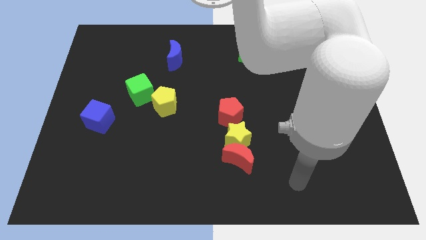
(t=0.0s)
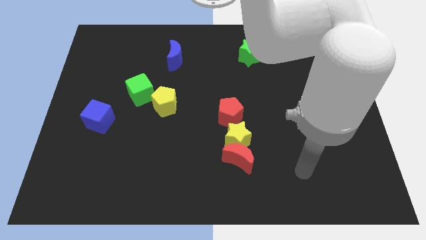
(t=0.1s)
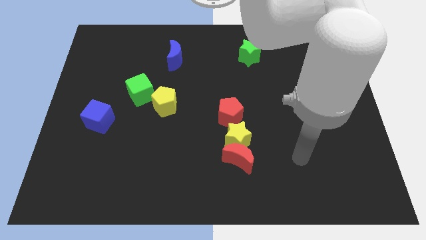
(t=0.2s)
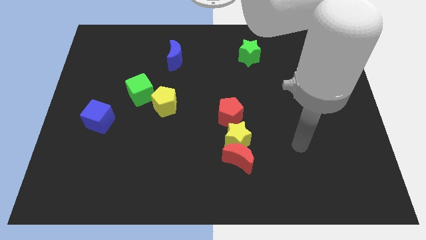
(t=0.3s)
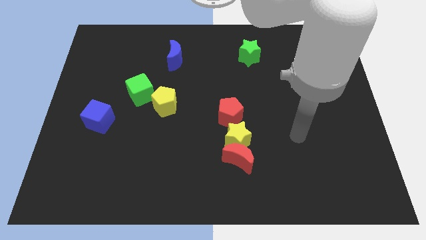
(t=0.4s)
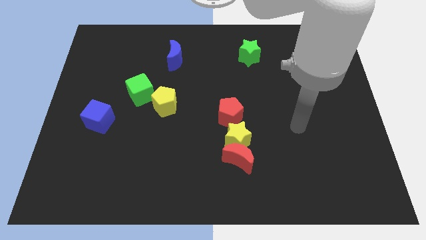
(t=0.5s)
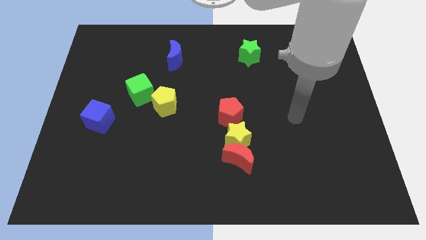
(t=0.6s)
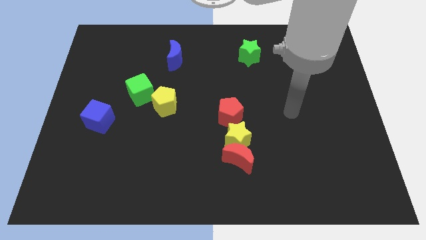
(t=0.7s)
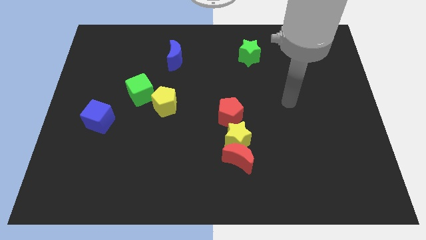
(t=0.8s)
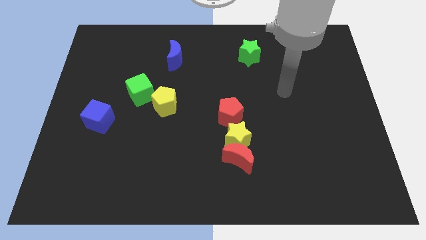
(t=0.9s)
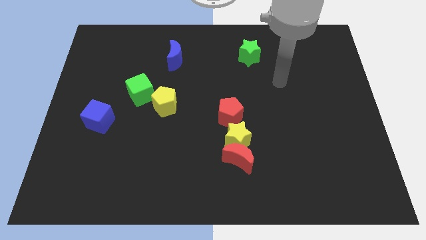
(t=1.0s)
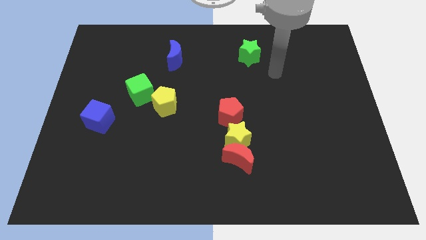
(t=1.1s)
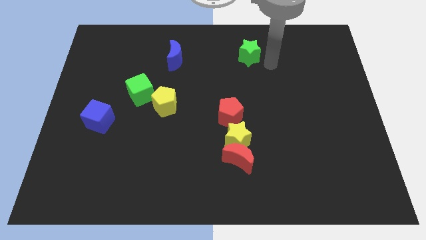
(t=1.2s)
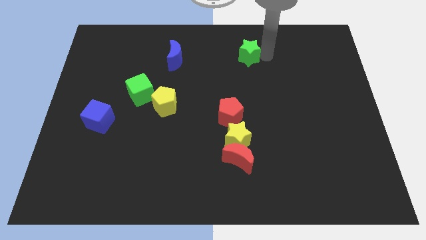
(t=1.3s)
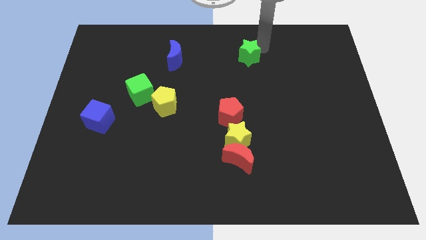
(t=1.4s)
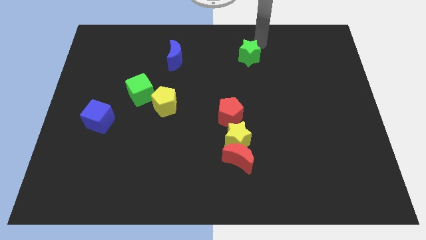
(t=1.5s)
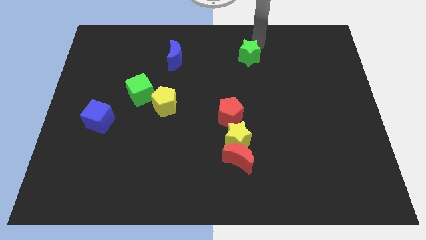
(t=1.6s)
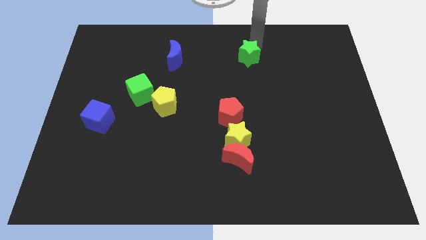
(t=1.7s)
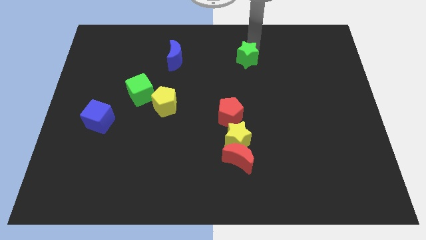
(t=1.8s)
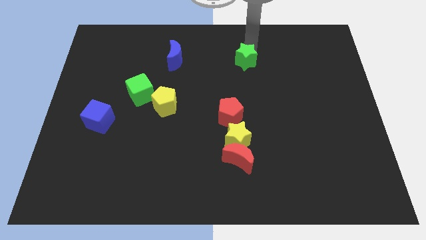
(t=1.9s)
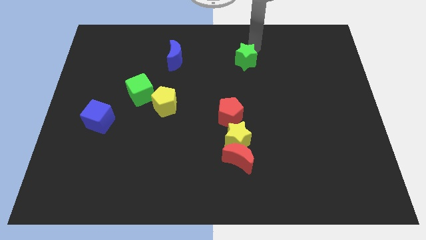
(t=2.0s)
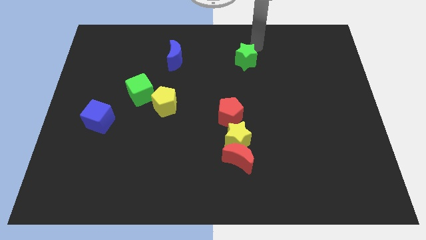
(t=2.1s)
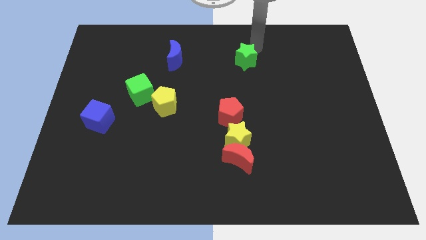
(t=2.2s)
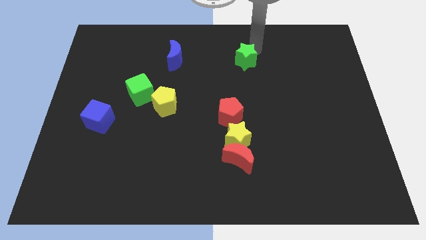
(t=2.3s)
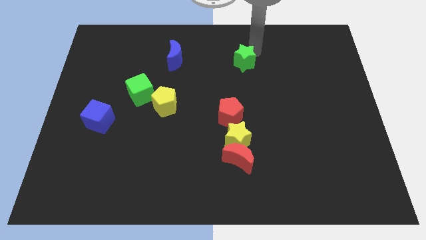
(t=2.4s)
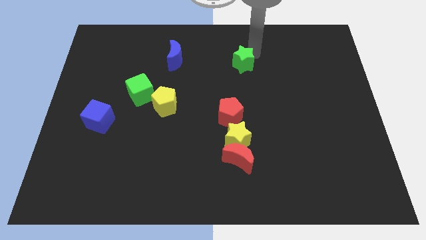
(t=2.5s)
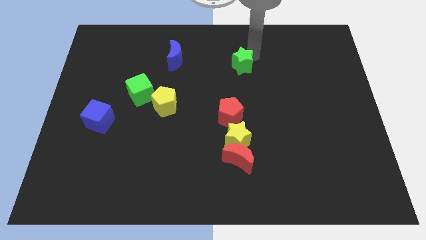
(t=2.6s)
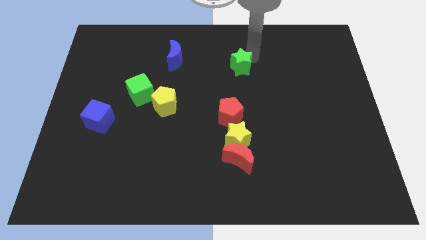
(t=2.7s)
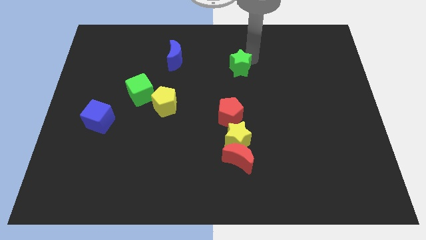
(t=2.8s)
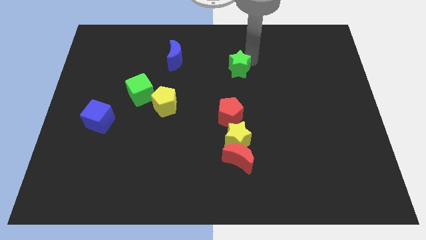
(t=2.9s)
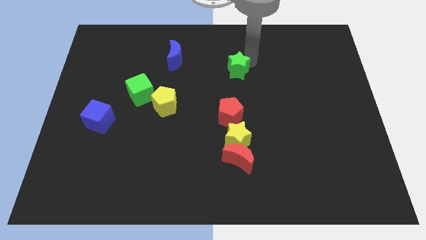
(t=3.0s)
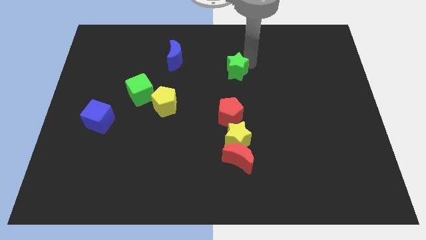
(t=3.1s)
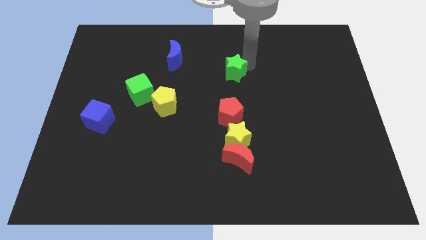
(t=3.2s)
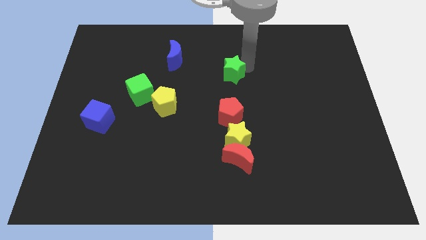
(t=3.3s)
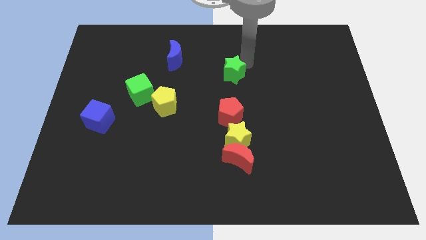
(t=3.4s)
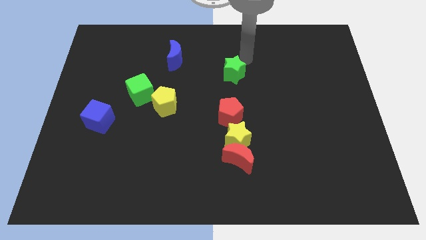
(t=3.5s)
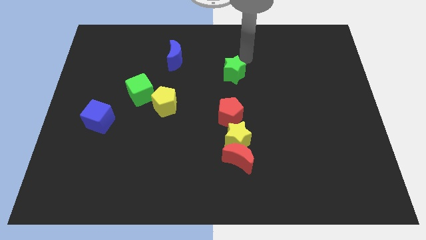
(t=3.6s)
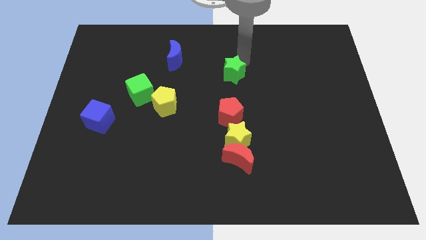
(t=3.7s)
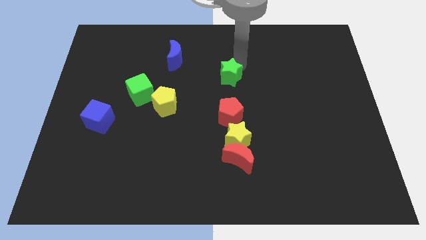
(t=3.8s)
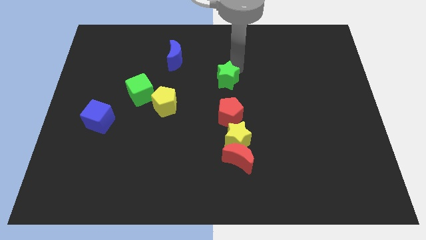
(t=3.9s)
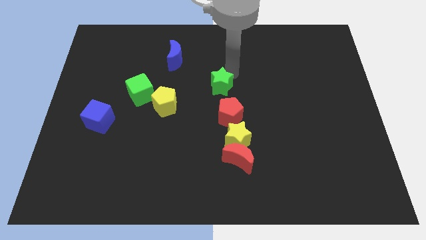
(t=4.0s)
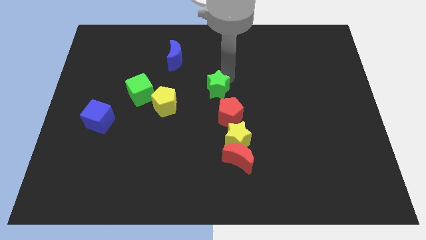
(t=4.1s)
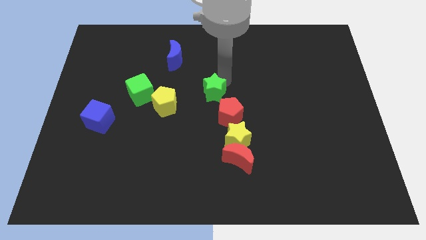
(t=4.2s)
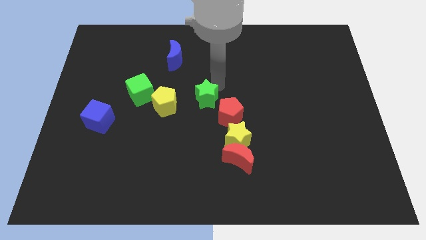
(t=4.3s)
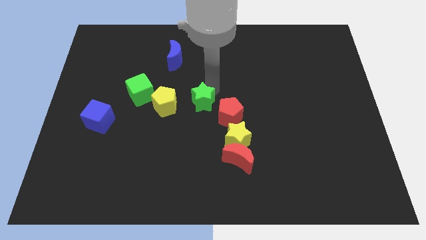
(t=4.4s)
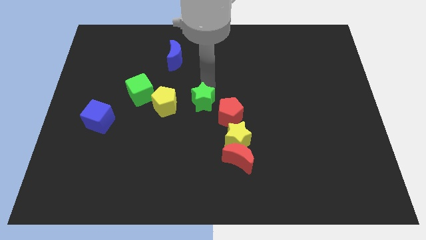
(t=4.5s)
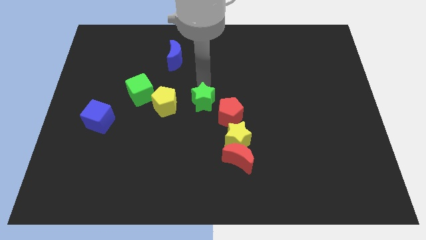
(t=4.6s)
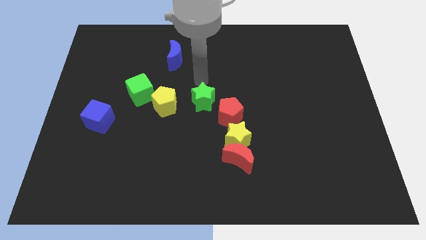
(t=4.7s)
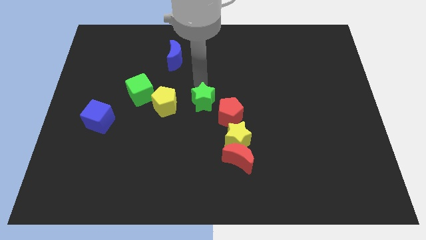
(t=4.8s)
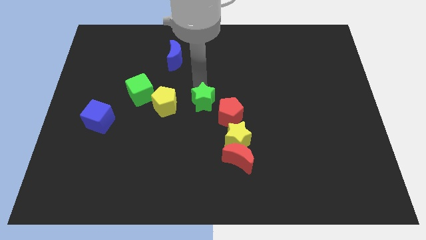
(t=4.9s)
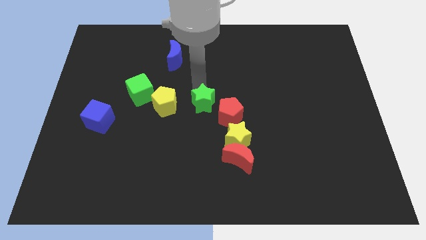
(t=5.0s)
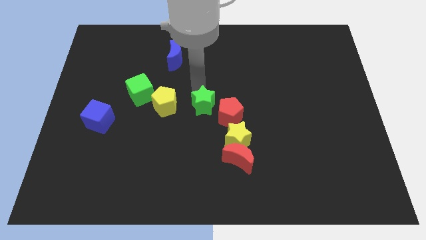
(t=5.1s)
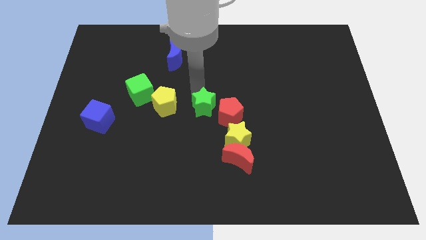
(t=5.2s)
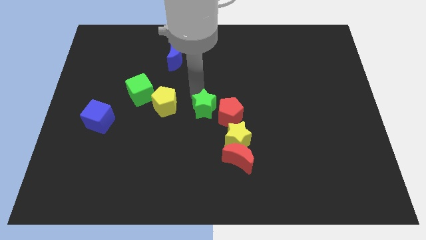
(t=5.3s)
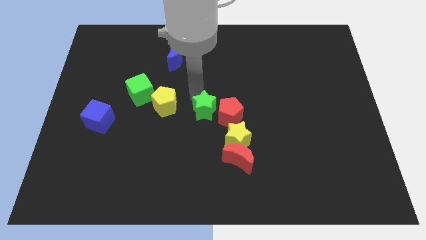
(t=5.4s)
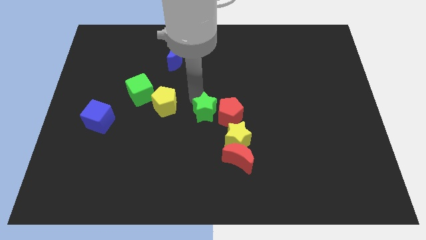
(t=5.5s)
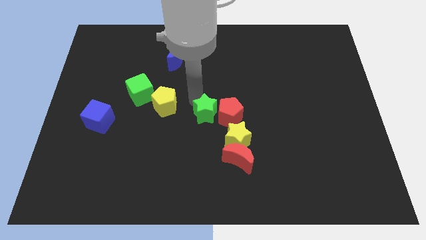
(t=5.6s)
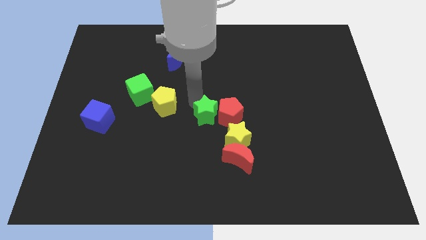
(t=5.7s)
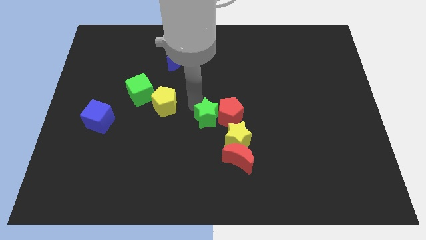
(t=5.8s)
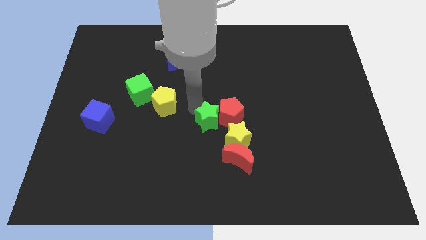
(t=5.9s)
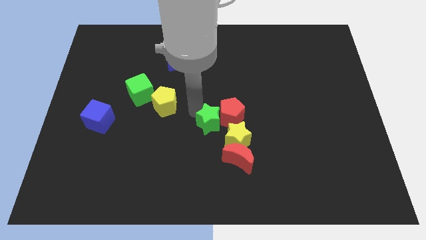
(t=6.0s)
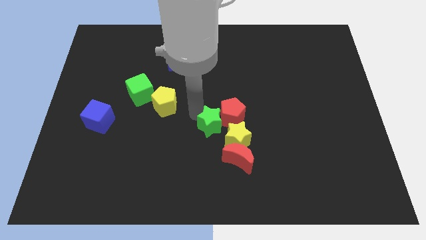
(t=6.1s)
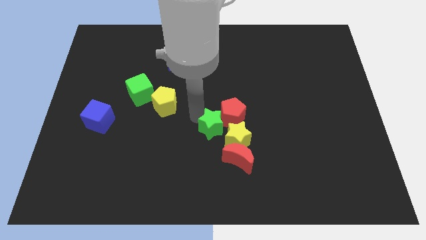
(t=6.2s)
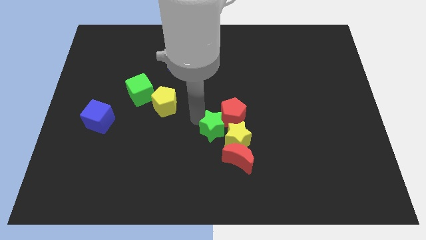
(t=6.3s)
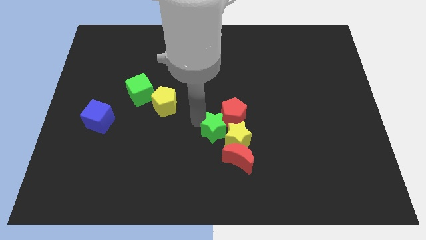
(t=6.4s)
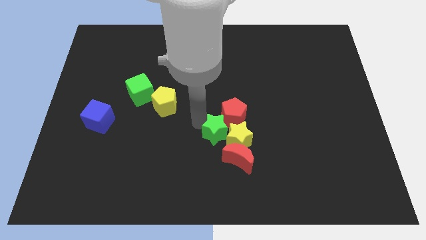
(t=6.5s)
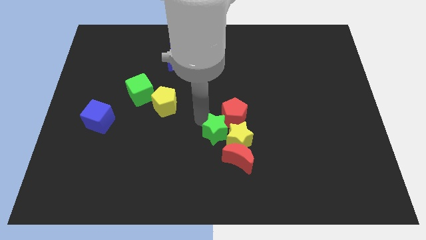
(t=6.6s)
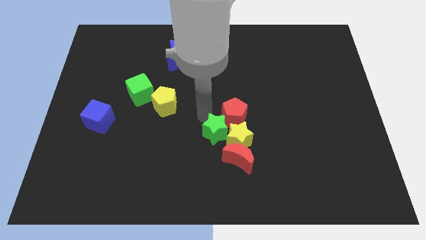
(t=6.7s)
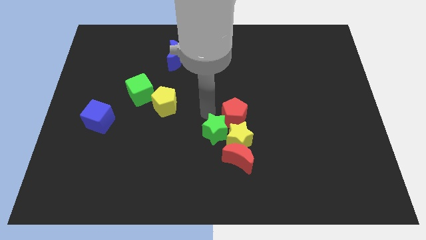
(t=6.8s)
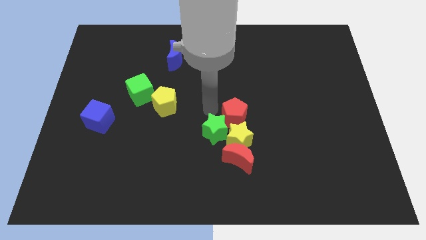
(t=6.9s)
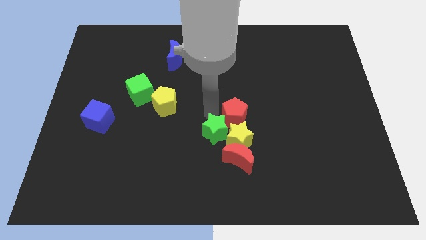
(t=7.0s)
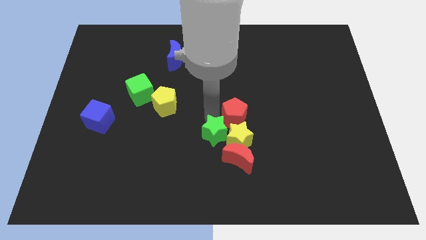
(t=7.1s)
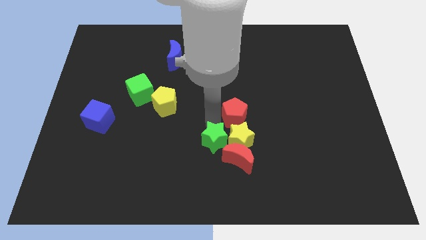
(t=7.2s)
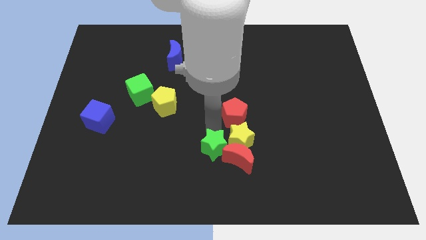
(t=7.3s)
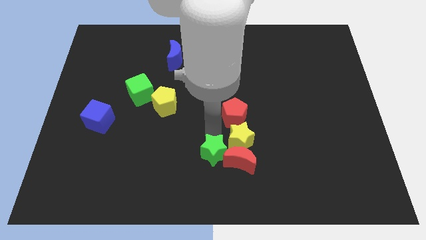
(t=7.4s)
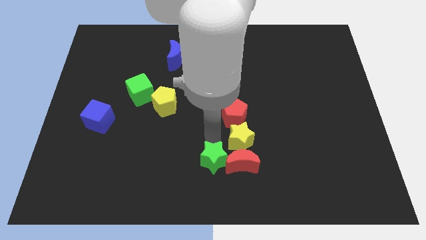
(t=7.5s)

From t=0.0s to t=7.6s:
move the green star to the bottom left of the red moon

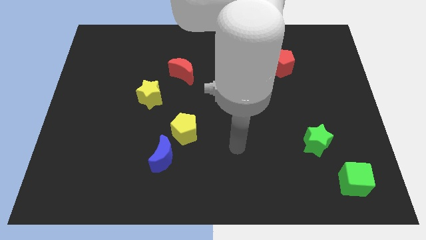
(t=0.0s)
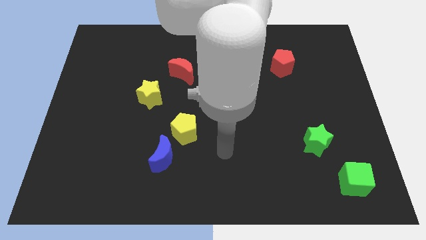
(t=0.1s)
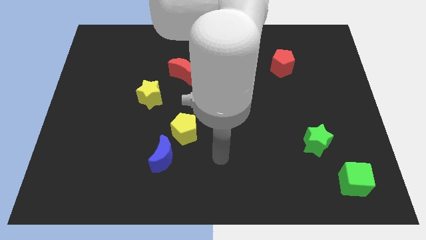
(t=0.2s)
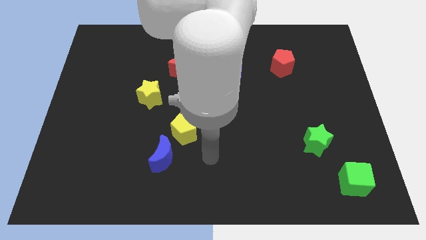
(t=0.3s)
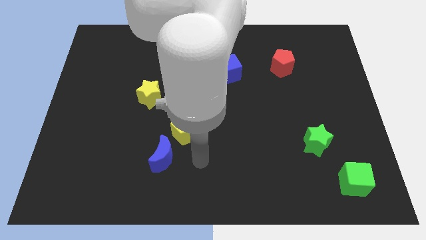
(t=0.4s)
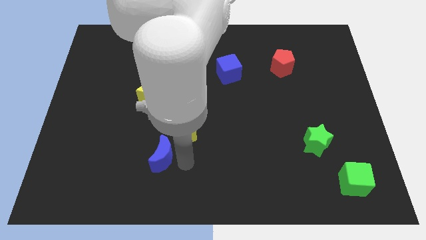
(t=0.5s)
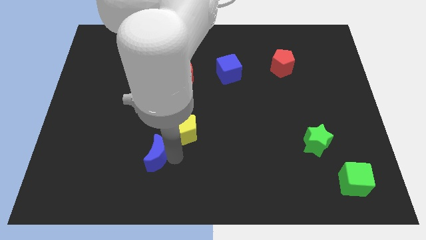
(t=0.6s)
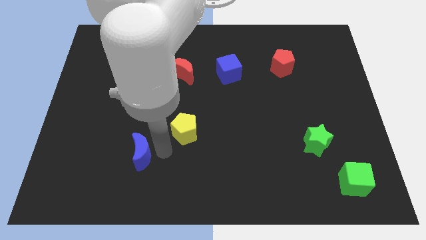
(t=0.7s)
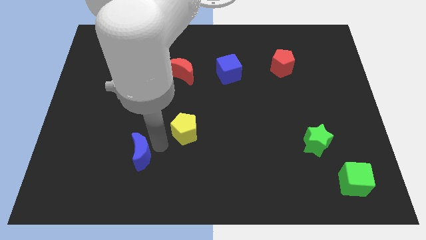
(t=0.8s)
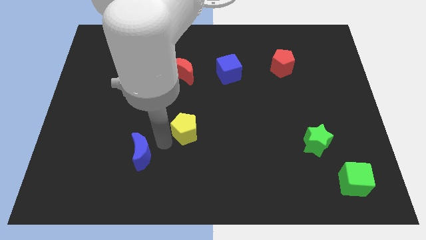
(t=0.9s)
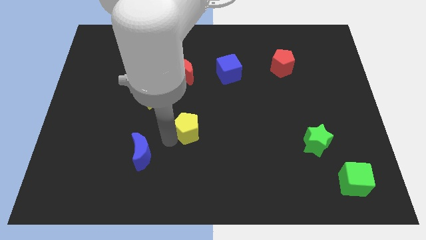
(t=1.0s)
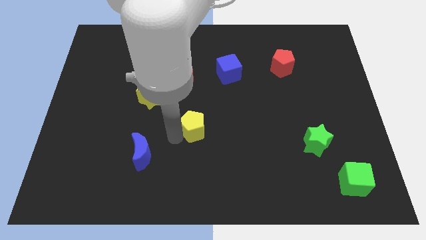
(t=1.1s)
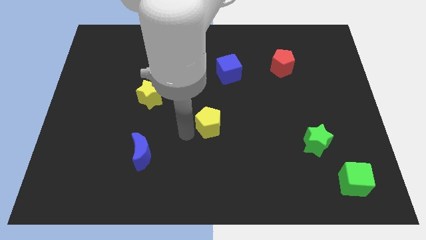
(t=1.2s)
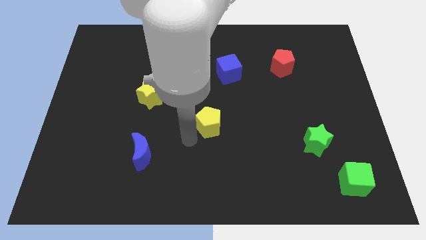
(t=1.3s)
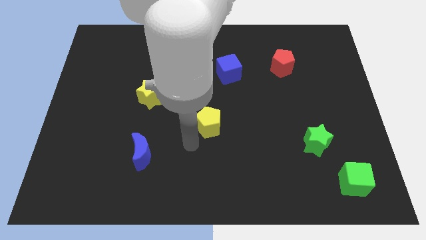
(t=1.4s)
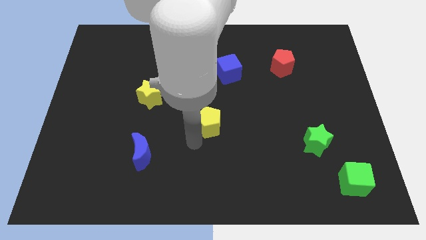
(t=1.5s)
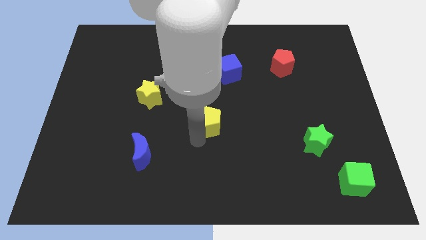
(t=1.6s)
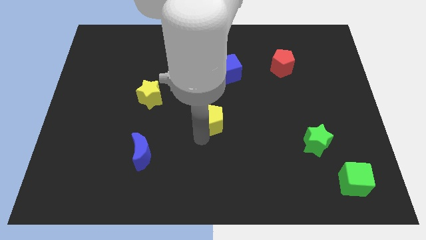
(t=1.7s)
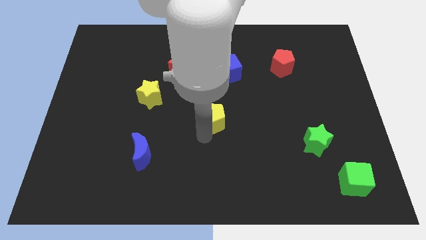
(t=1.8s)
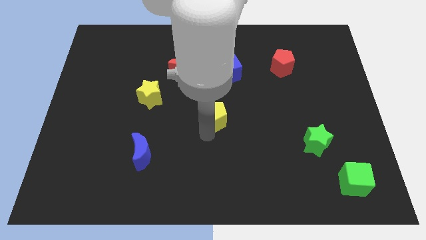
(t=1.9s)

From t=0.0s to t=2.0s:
put the yellow pentagon to the bottom side of the blue cube
